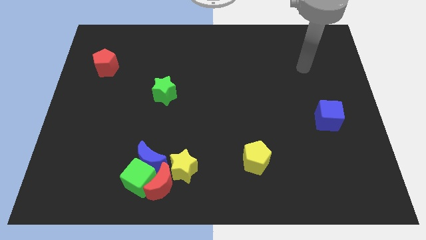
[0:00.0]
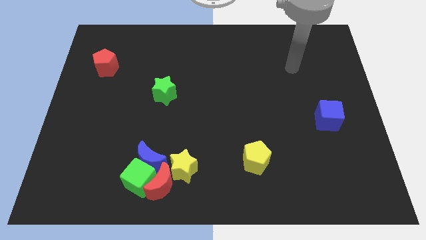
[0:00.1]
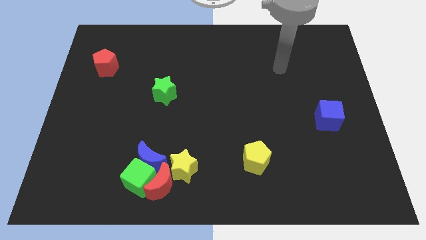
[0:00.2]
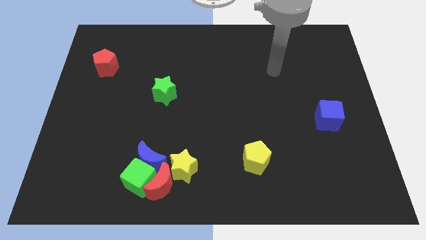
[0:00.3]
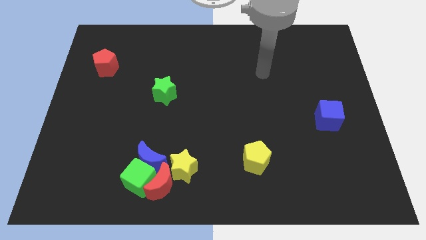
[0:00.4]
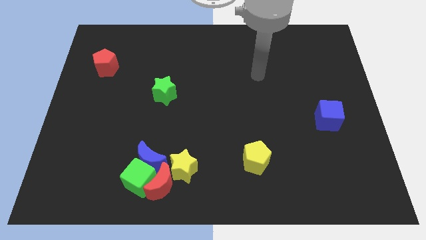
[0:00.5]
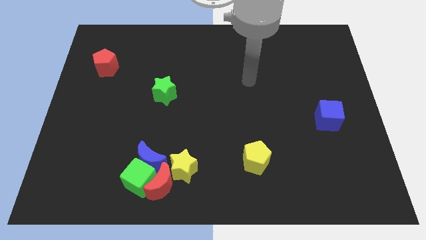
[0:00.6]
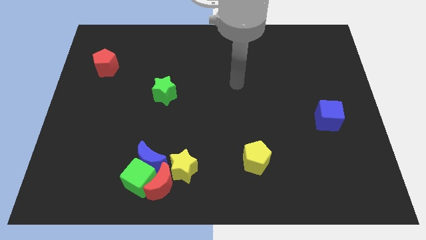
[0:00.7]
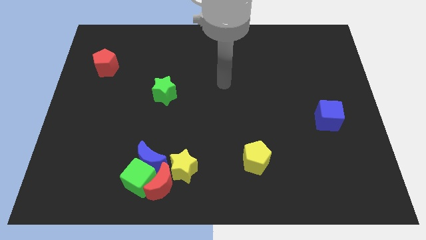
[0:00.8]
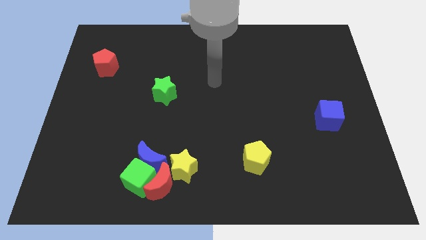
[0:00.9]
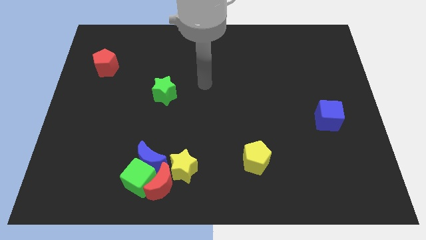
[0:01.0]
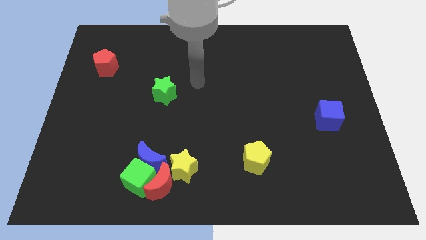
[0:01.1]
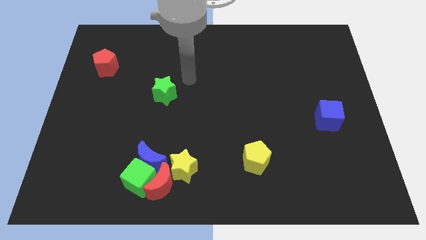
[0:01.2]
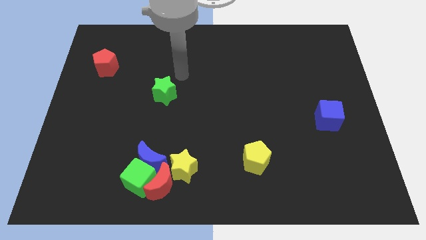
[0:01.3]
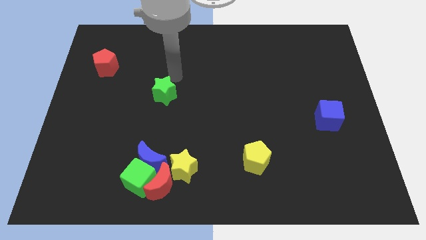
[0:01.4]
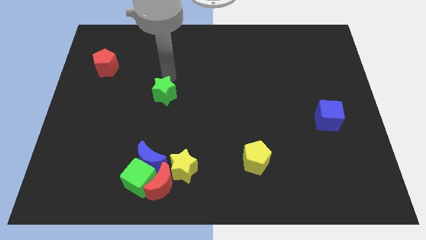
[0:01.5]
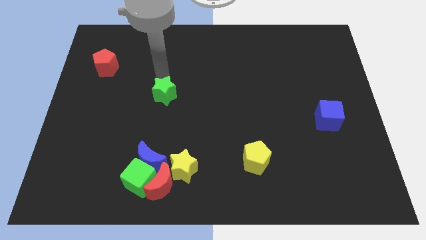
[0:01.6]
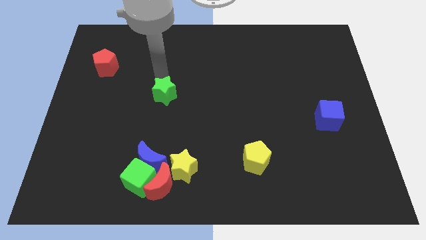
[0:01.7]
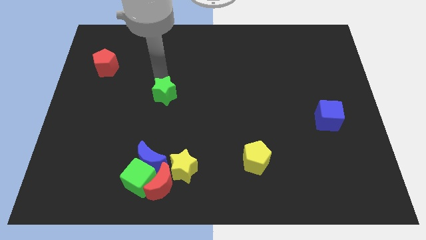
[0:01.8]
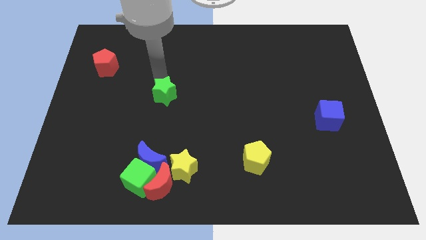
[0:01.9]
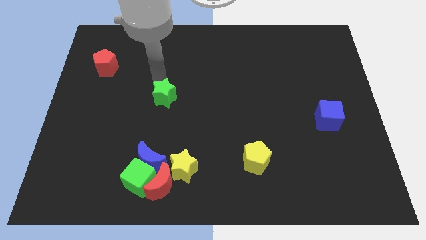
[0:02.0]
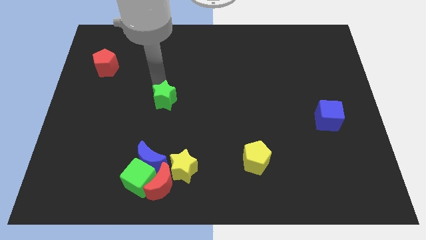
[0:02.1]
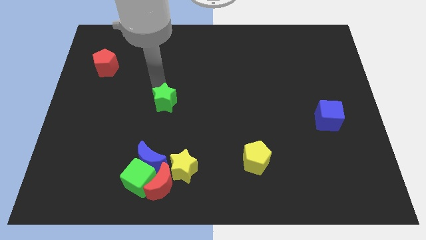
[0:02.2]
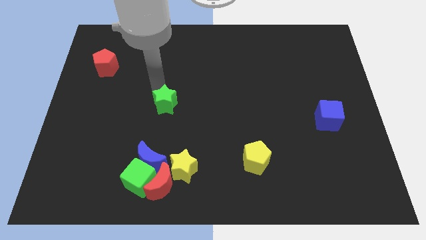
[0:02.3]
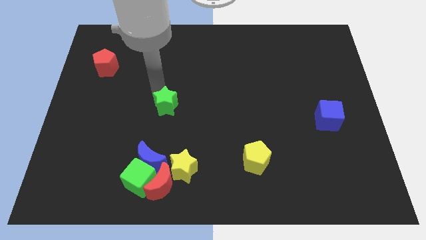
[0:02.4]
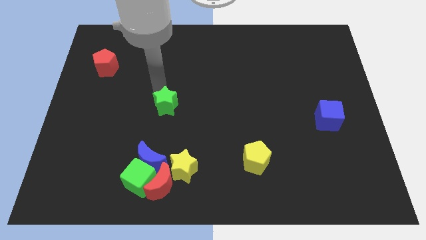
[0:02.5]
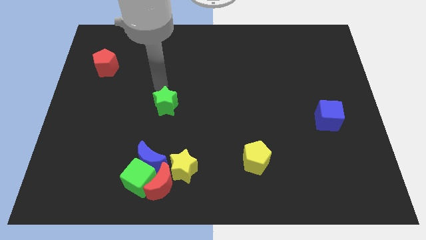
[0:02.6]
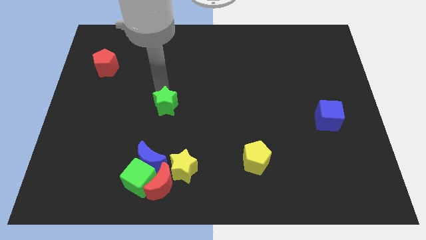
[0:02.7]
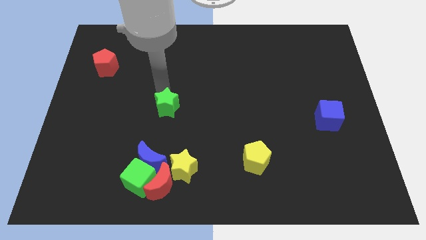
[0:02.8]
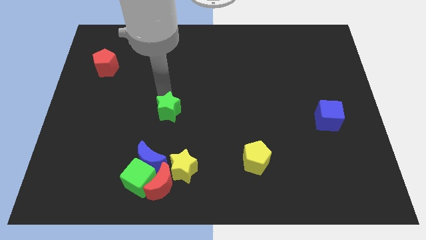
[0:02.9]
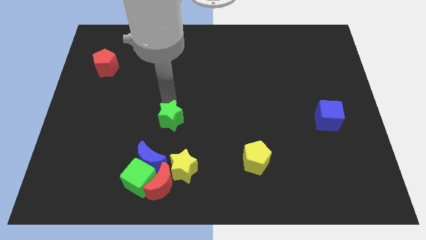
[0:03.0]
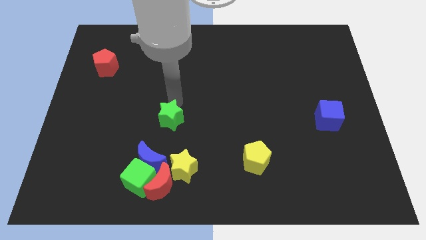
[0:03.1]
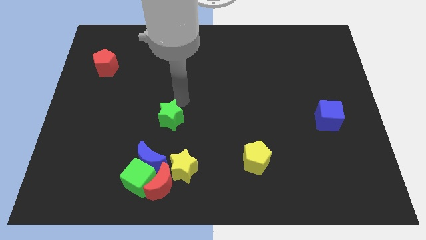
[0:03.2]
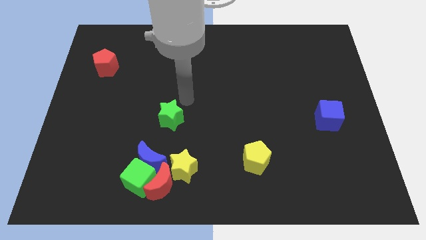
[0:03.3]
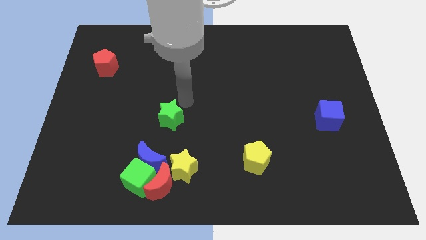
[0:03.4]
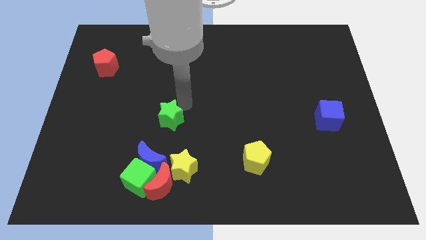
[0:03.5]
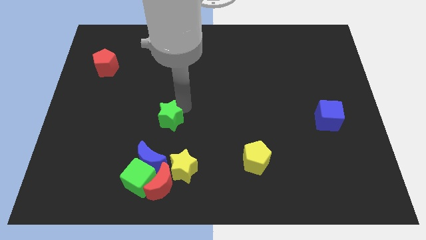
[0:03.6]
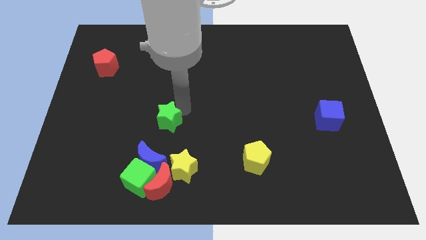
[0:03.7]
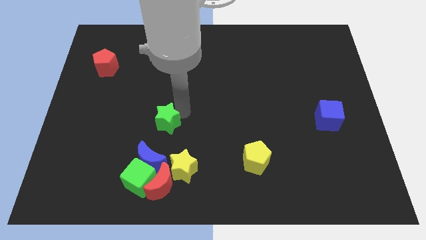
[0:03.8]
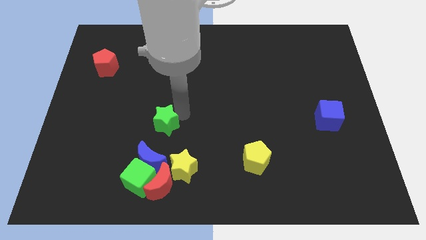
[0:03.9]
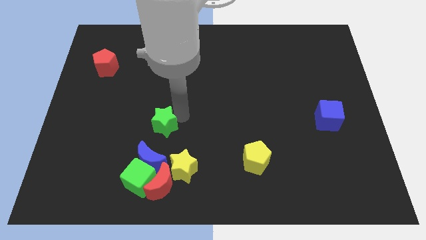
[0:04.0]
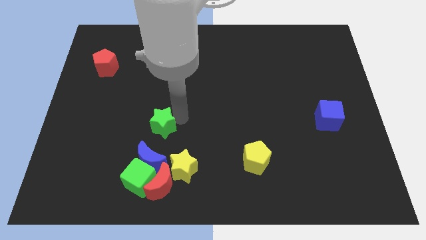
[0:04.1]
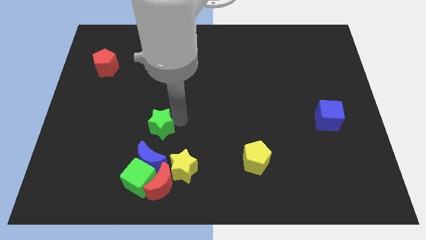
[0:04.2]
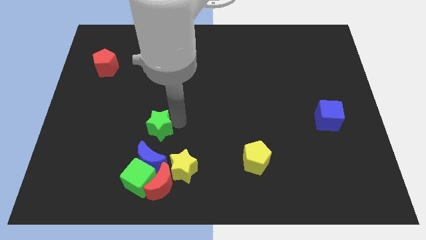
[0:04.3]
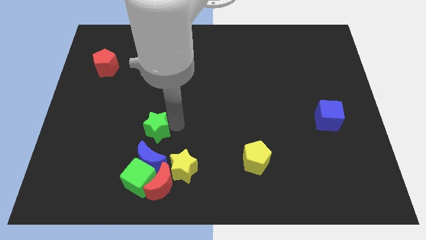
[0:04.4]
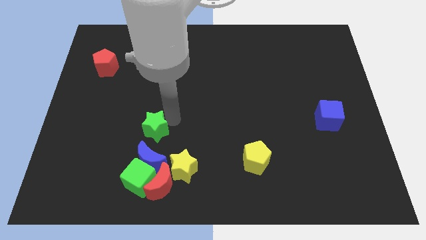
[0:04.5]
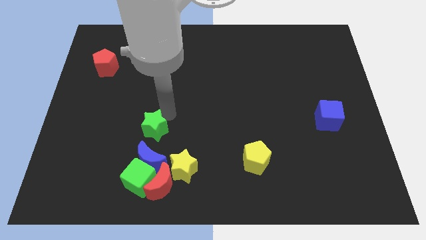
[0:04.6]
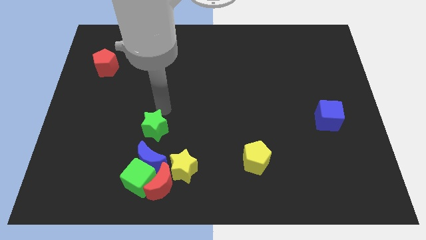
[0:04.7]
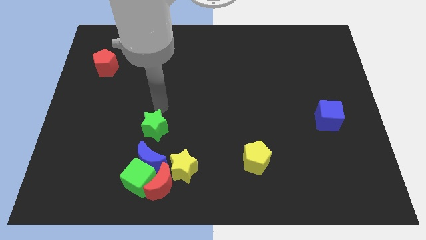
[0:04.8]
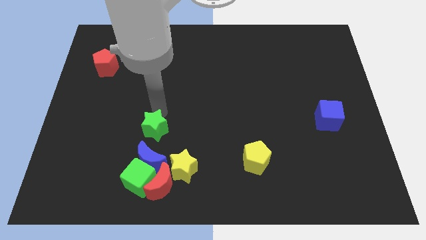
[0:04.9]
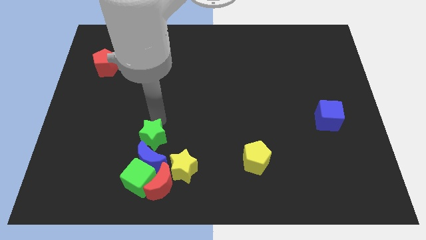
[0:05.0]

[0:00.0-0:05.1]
slide the green star close to the blue moon

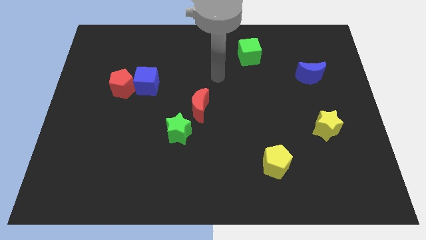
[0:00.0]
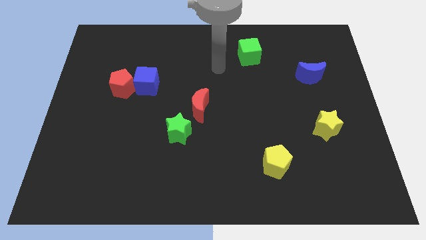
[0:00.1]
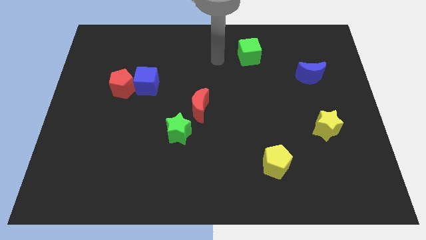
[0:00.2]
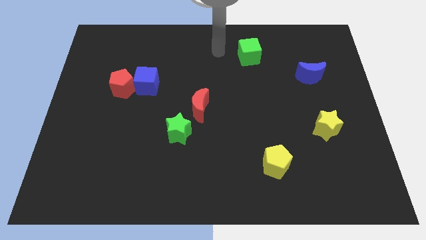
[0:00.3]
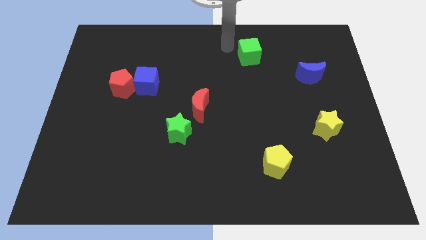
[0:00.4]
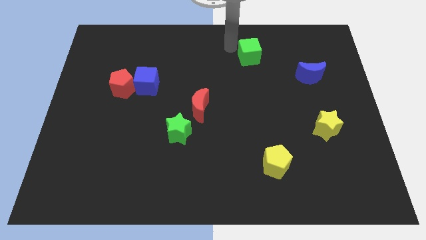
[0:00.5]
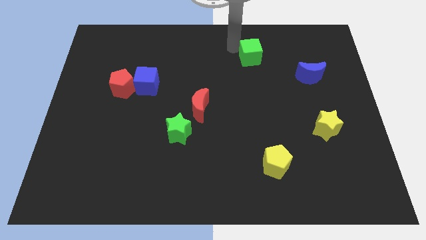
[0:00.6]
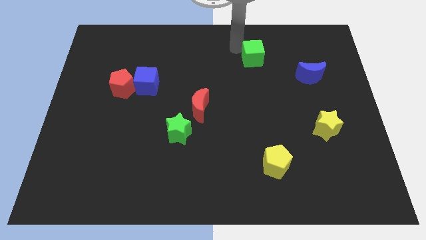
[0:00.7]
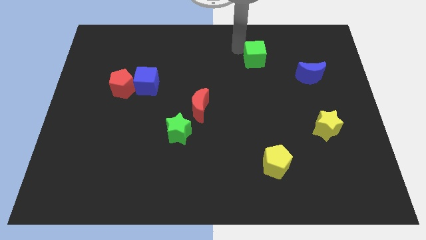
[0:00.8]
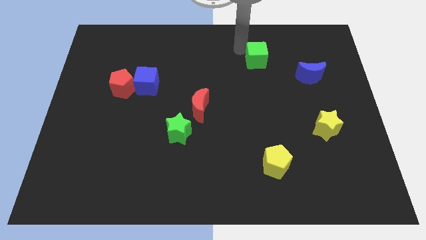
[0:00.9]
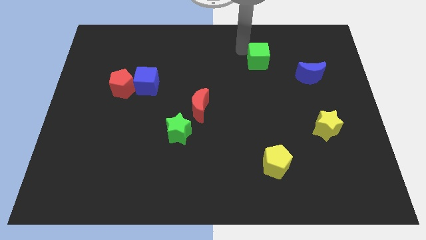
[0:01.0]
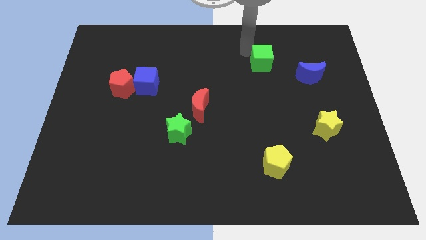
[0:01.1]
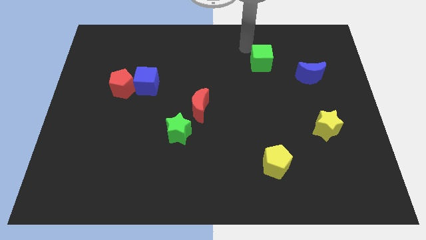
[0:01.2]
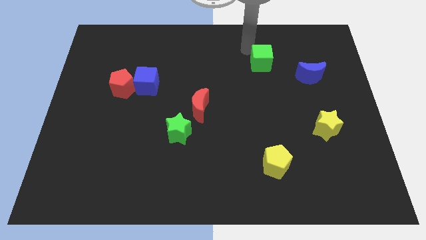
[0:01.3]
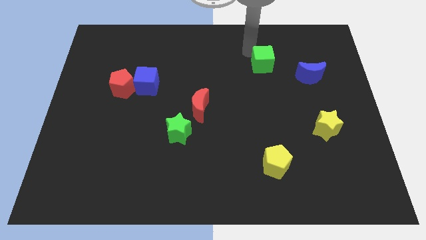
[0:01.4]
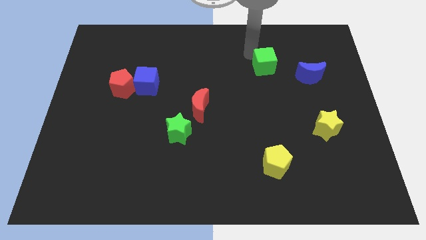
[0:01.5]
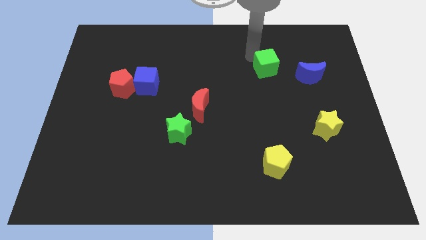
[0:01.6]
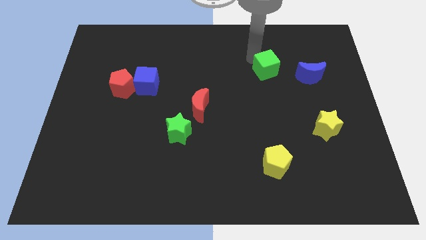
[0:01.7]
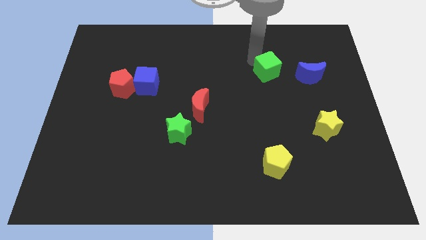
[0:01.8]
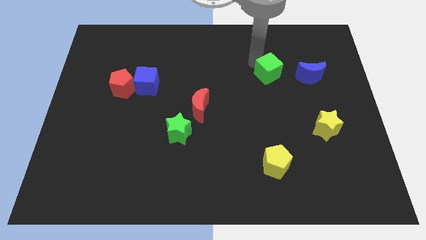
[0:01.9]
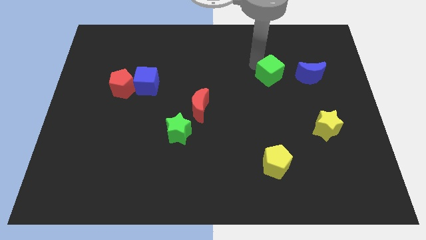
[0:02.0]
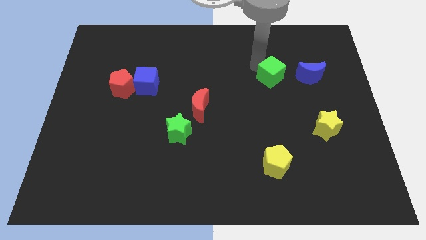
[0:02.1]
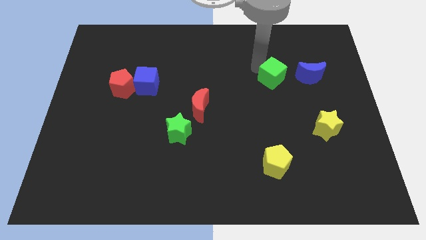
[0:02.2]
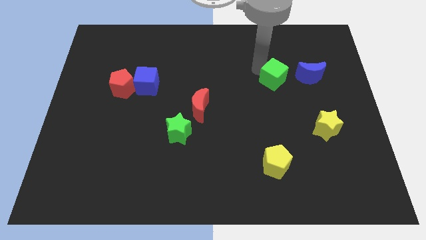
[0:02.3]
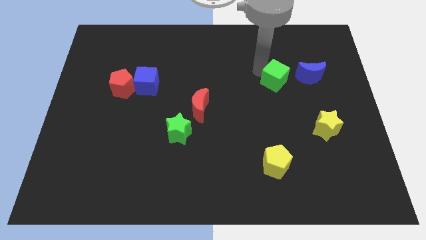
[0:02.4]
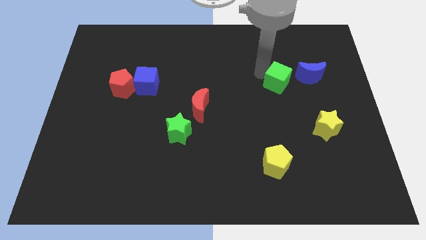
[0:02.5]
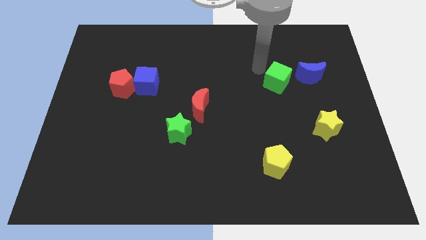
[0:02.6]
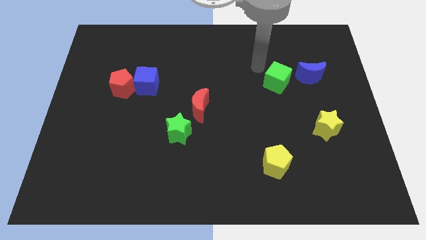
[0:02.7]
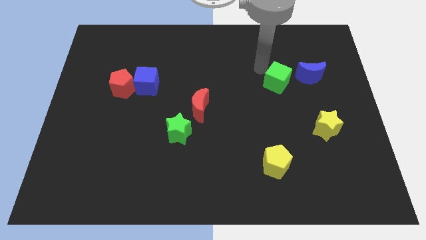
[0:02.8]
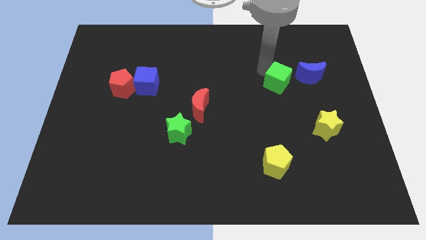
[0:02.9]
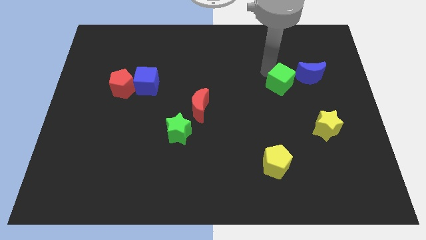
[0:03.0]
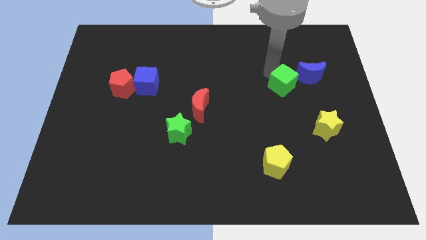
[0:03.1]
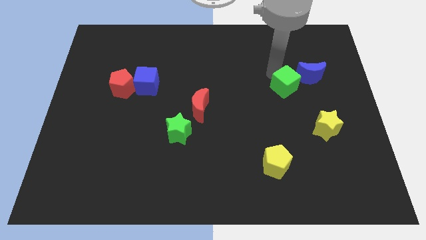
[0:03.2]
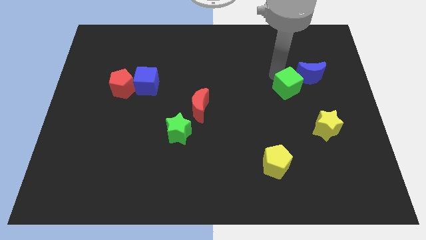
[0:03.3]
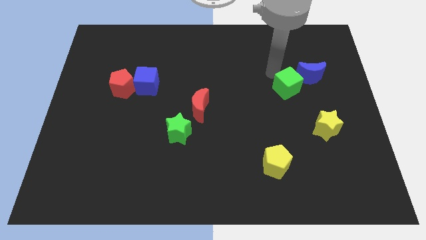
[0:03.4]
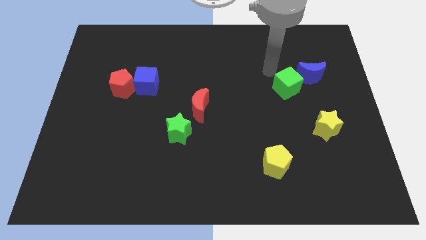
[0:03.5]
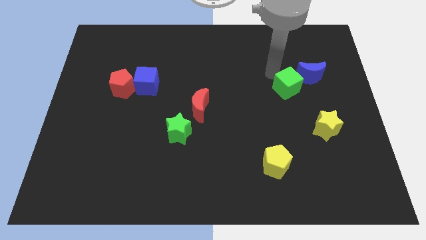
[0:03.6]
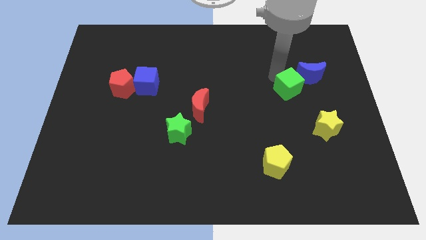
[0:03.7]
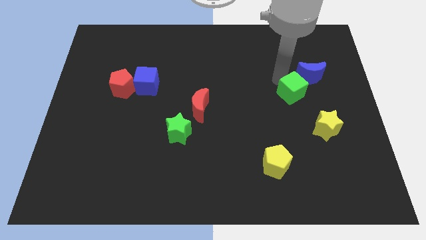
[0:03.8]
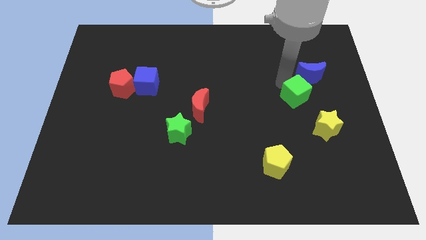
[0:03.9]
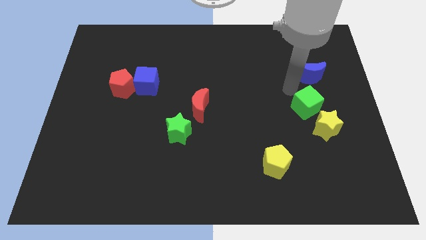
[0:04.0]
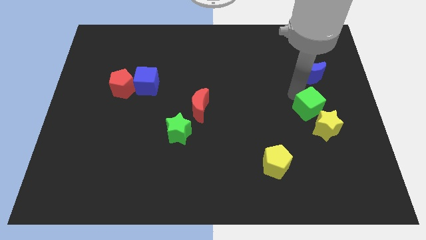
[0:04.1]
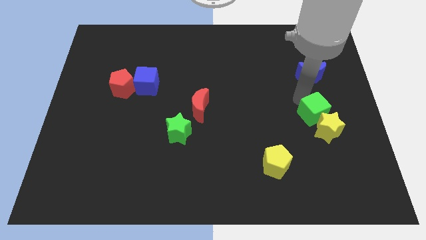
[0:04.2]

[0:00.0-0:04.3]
slide the green cube close to the yellow star
